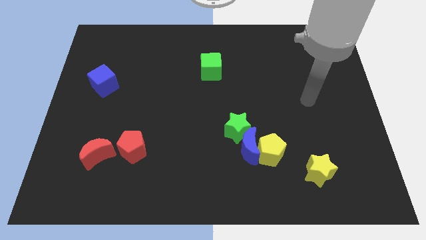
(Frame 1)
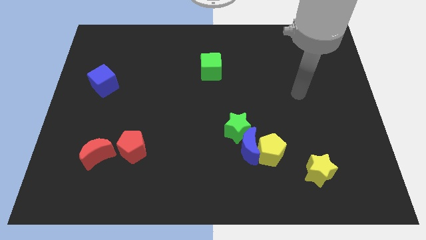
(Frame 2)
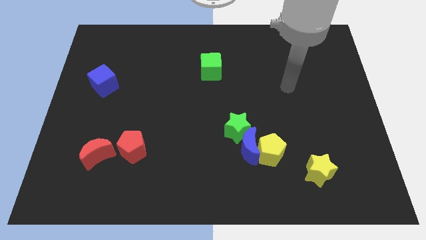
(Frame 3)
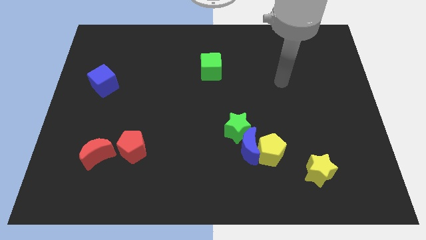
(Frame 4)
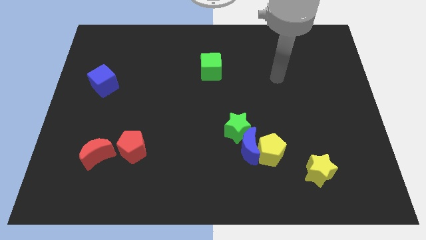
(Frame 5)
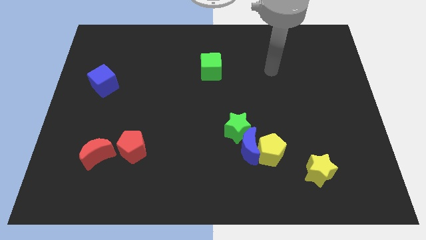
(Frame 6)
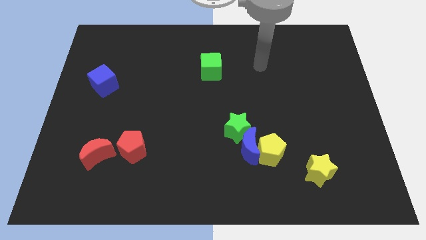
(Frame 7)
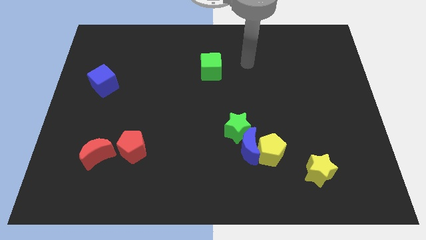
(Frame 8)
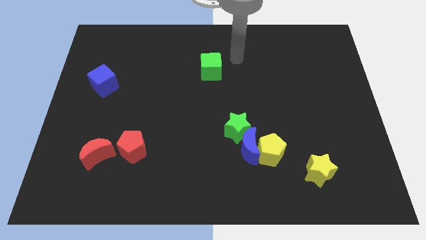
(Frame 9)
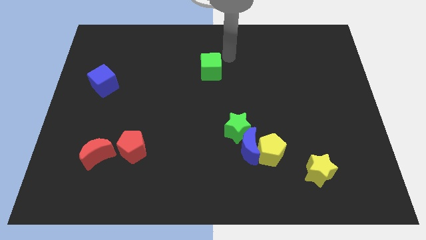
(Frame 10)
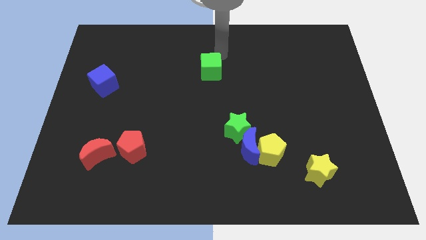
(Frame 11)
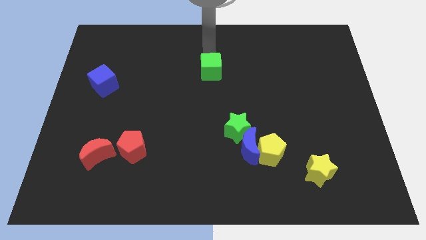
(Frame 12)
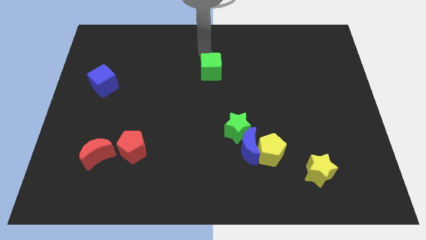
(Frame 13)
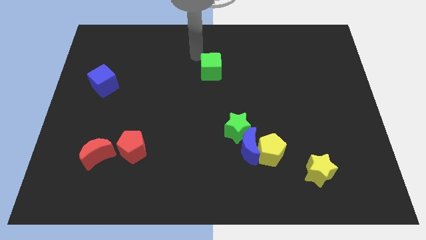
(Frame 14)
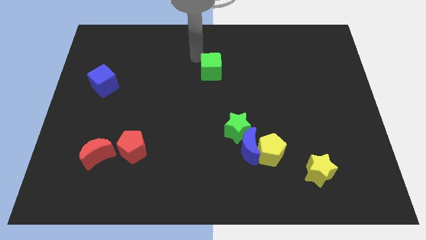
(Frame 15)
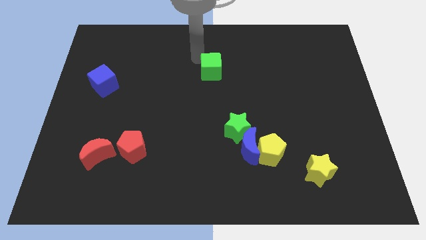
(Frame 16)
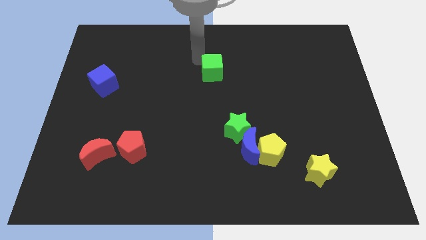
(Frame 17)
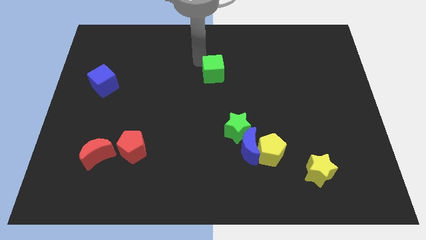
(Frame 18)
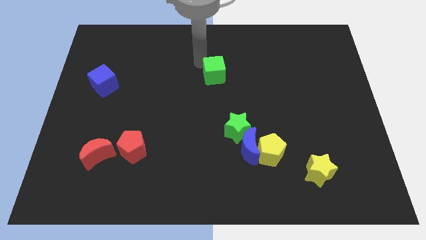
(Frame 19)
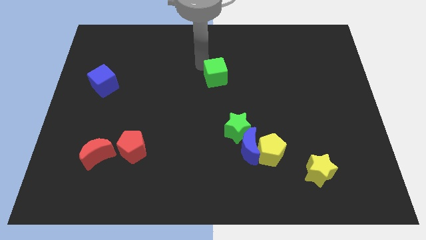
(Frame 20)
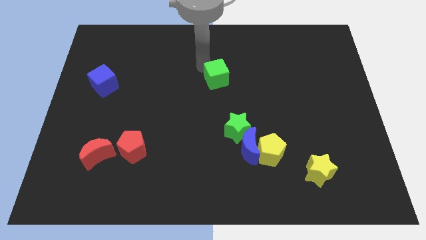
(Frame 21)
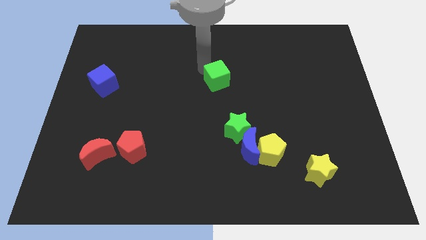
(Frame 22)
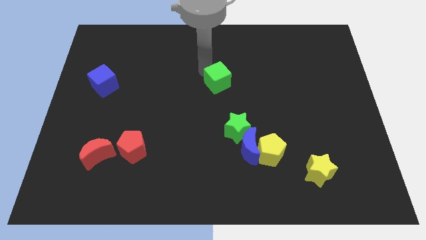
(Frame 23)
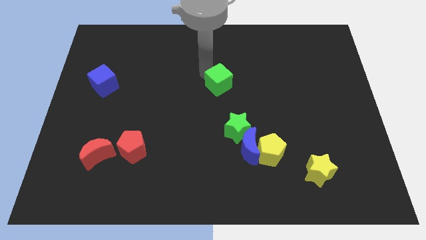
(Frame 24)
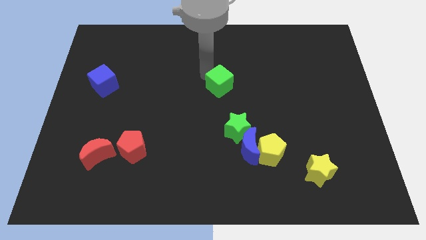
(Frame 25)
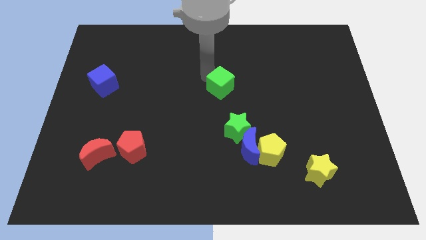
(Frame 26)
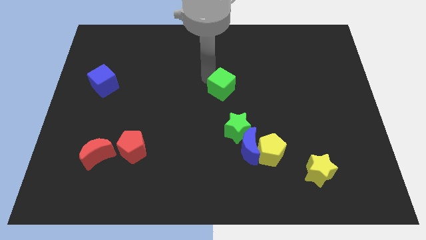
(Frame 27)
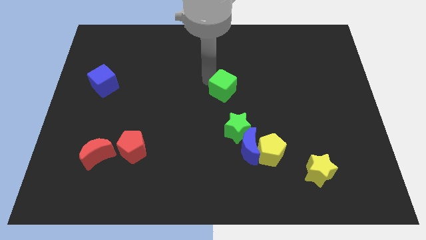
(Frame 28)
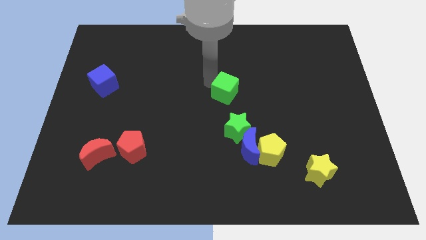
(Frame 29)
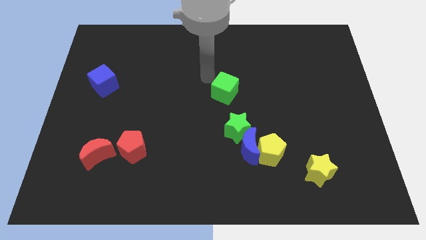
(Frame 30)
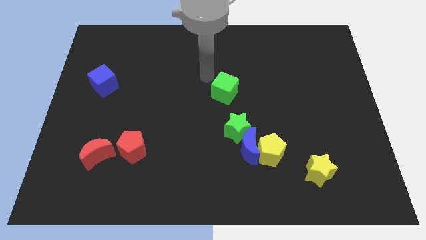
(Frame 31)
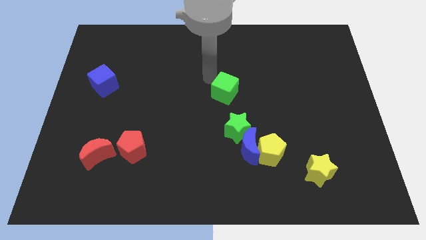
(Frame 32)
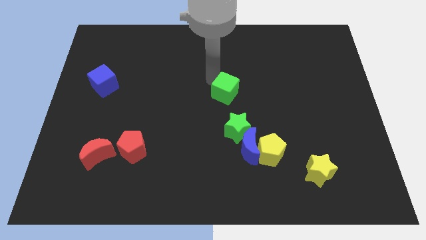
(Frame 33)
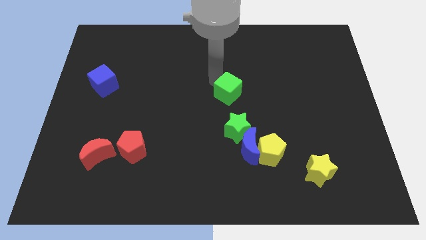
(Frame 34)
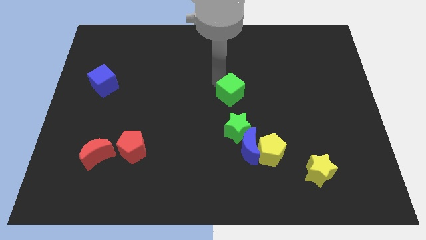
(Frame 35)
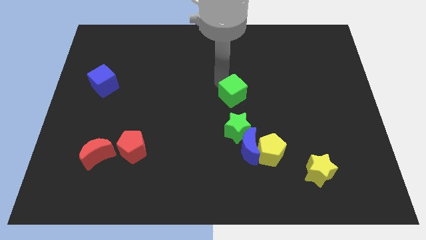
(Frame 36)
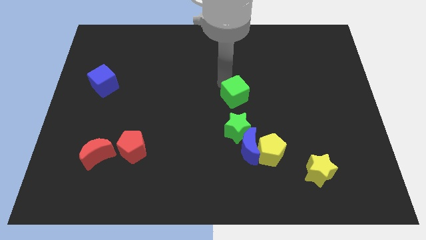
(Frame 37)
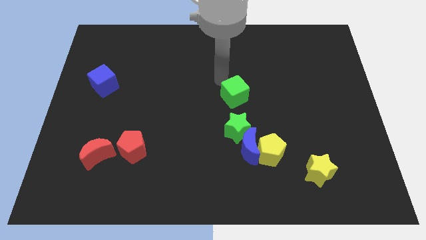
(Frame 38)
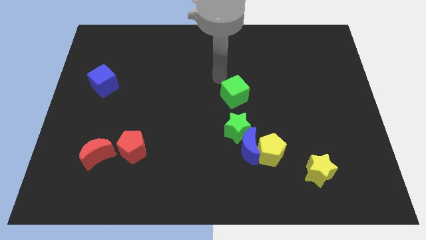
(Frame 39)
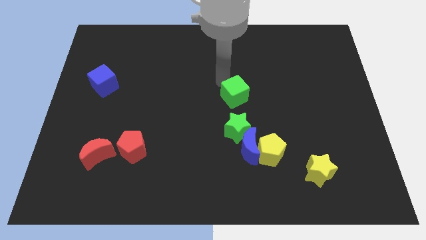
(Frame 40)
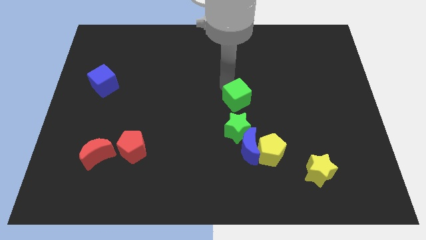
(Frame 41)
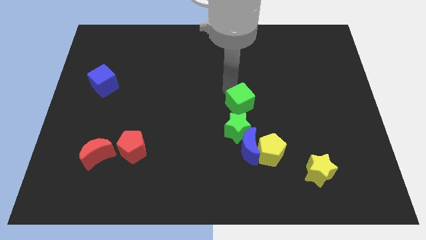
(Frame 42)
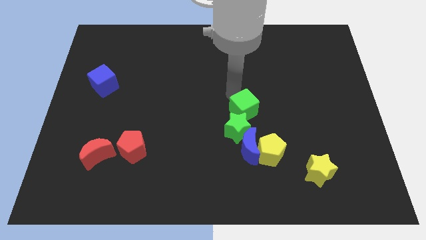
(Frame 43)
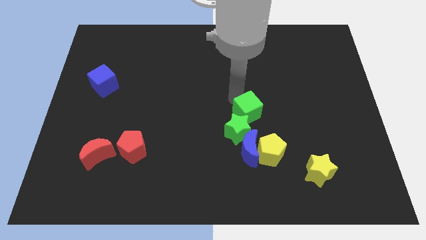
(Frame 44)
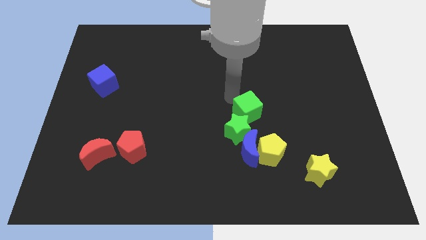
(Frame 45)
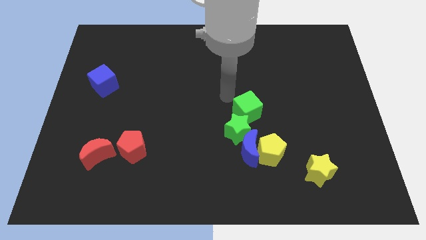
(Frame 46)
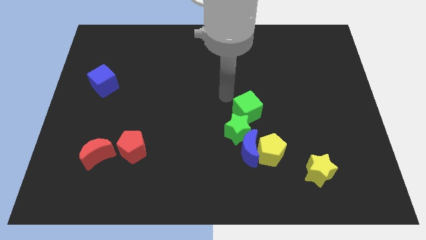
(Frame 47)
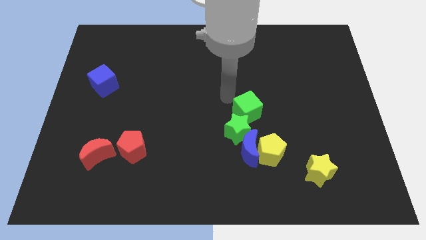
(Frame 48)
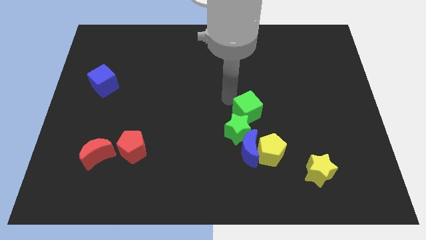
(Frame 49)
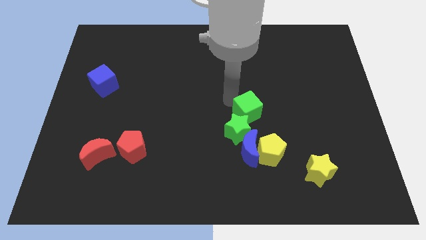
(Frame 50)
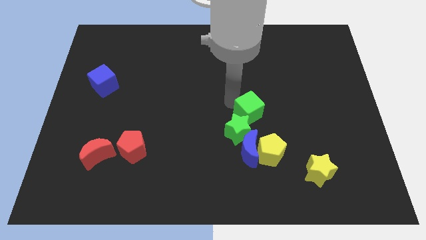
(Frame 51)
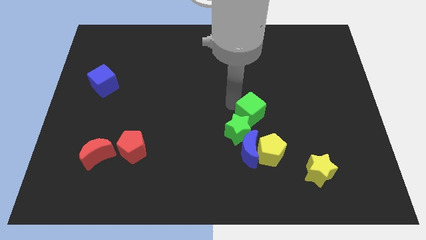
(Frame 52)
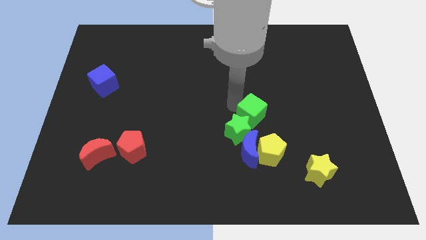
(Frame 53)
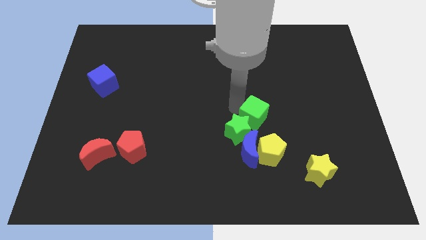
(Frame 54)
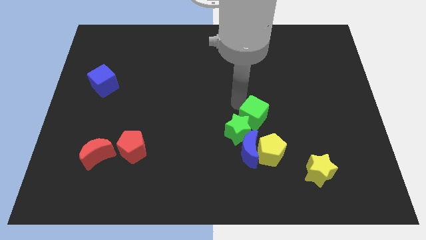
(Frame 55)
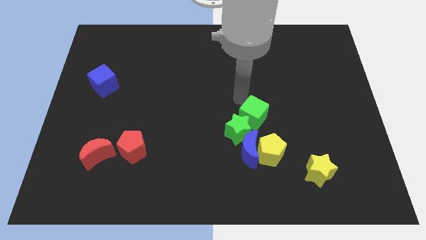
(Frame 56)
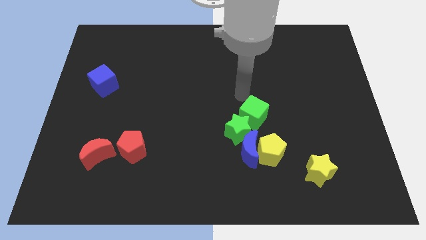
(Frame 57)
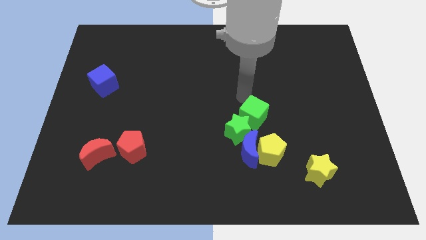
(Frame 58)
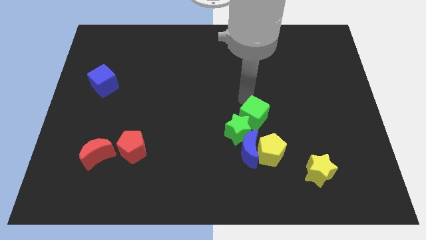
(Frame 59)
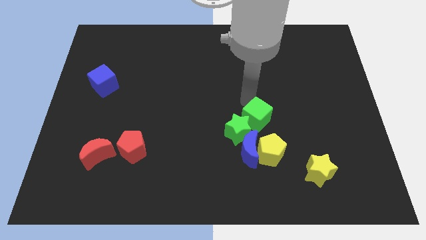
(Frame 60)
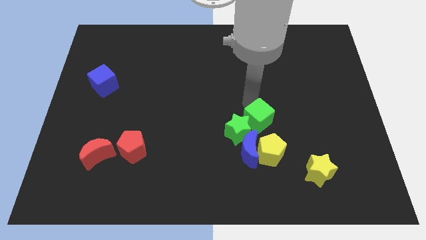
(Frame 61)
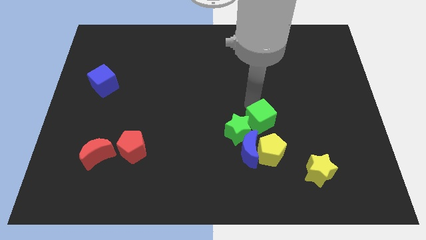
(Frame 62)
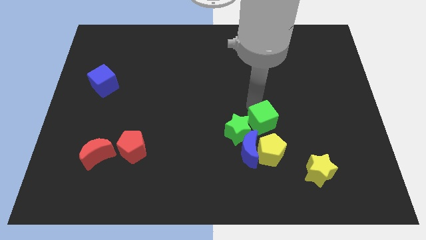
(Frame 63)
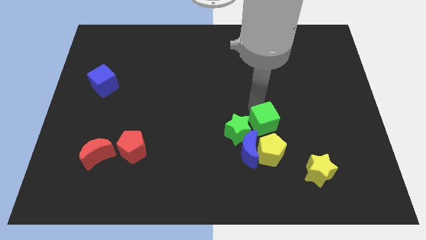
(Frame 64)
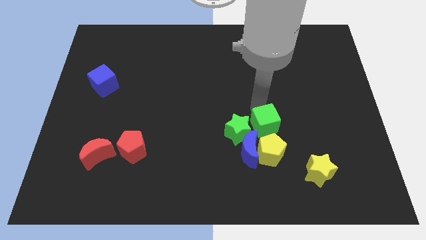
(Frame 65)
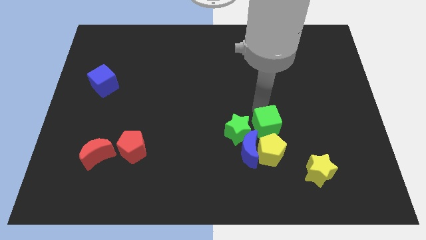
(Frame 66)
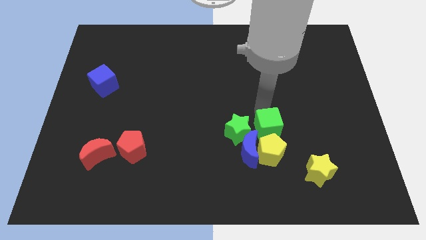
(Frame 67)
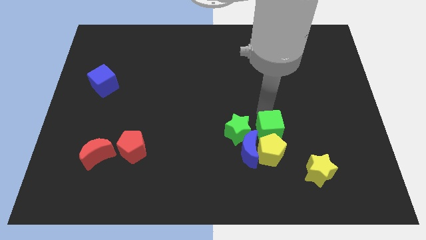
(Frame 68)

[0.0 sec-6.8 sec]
put the green cube next to the yellow pentagon
